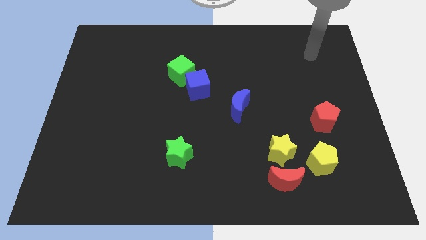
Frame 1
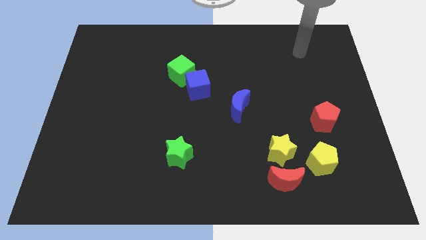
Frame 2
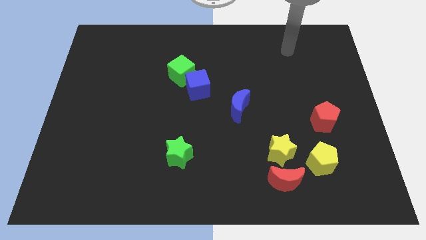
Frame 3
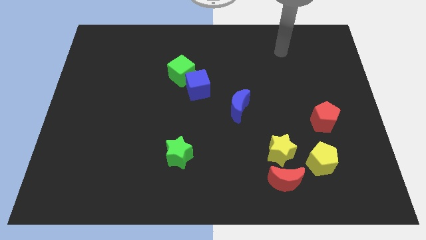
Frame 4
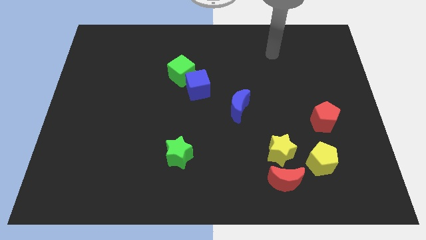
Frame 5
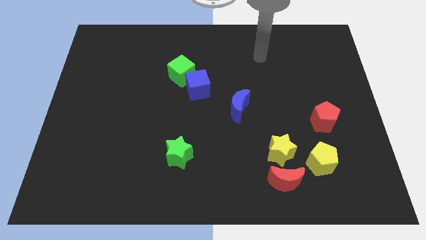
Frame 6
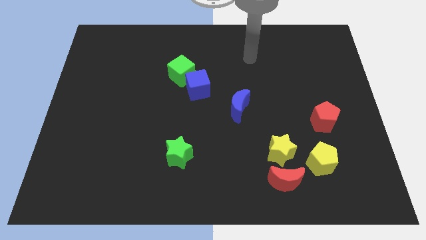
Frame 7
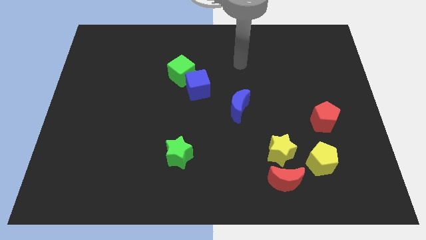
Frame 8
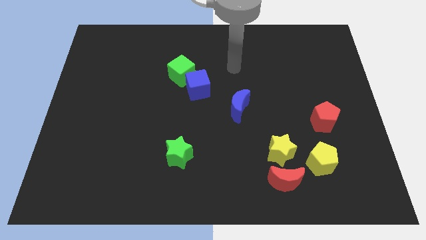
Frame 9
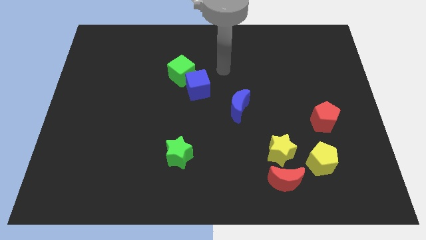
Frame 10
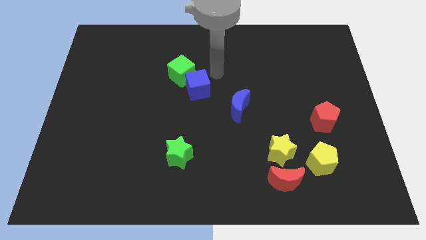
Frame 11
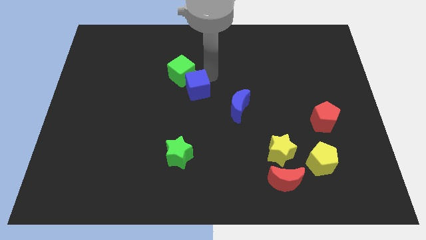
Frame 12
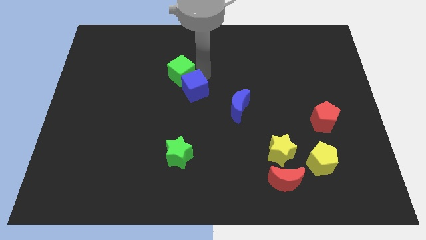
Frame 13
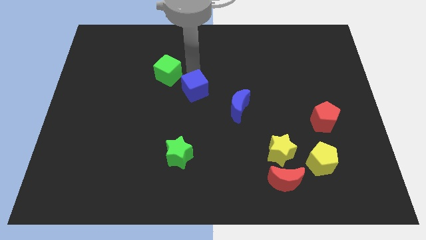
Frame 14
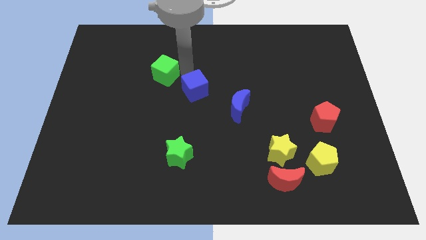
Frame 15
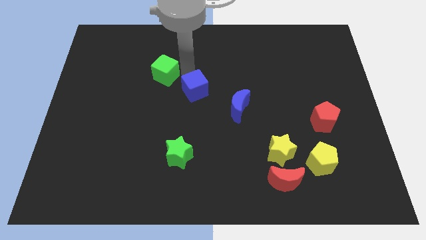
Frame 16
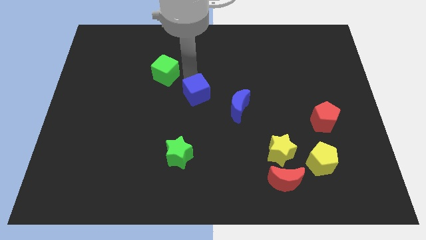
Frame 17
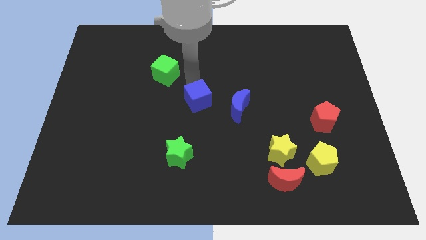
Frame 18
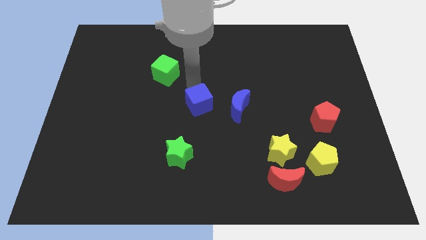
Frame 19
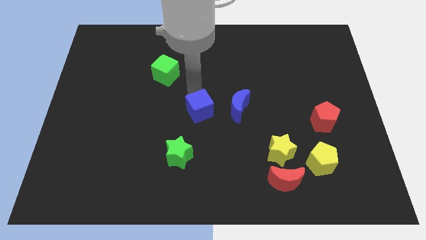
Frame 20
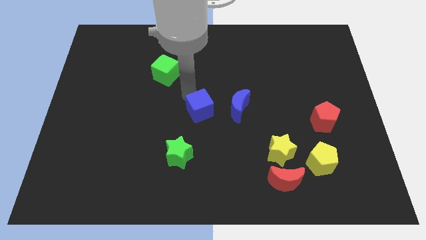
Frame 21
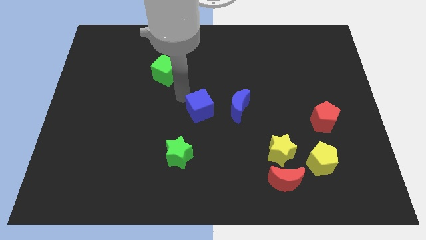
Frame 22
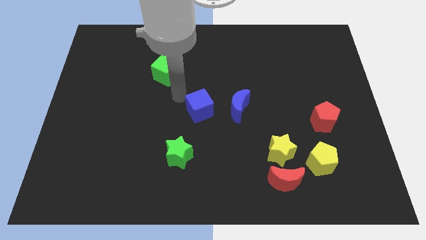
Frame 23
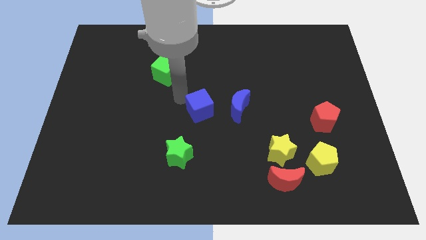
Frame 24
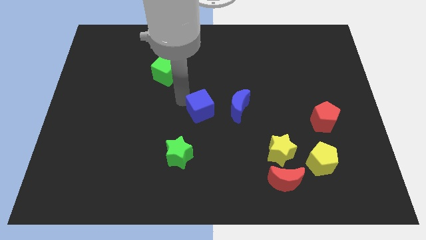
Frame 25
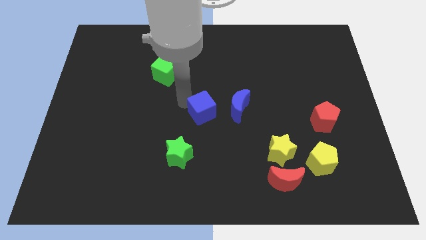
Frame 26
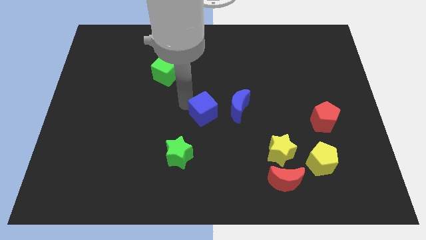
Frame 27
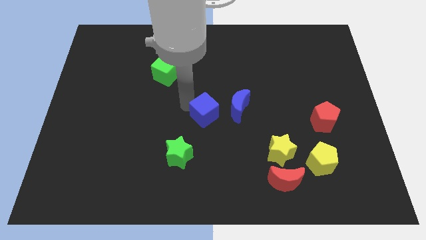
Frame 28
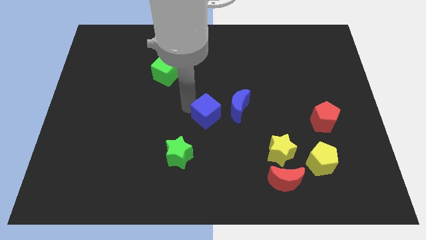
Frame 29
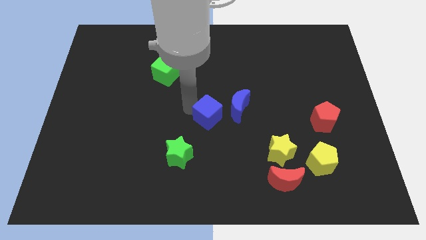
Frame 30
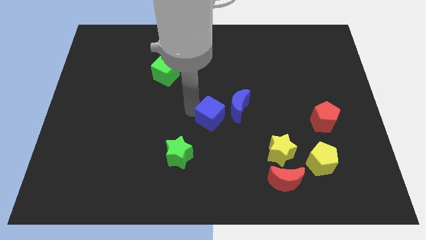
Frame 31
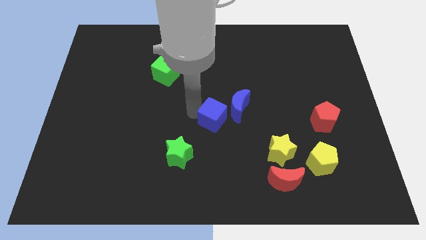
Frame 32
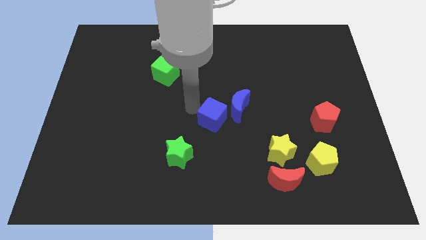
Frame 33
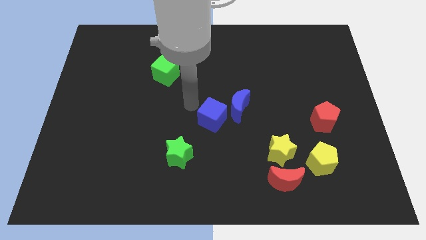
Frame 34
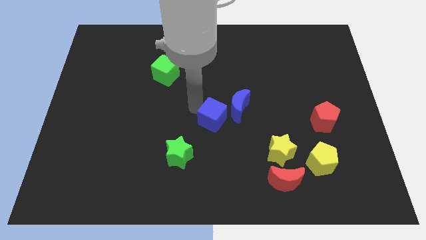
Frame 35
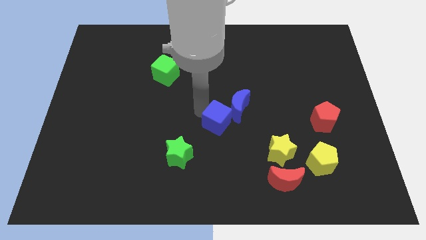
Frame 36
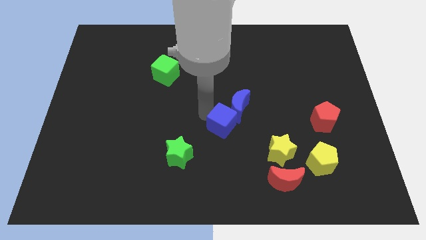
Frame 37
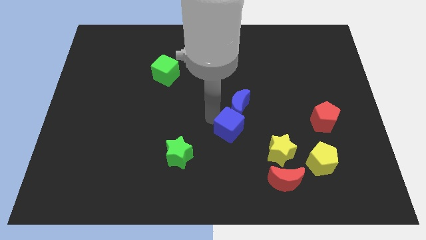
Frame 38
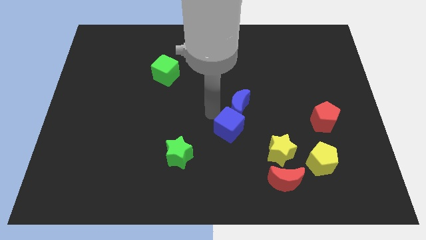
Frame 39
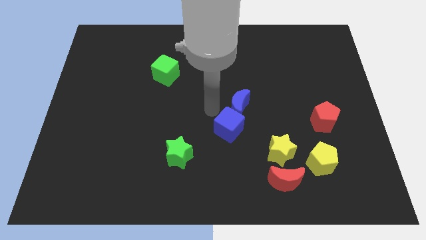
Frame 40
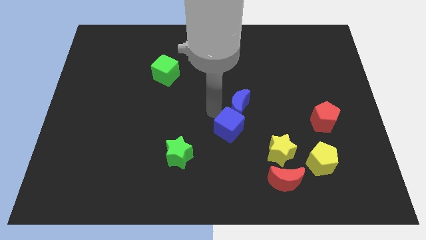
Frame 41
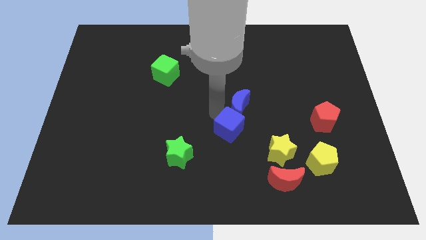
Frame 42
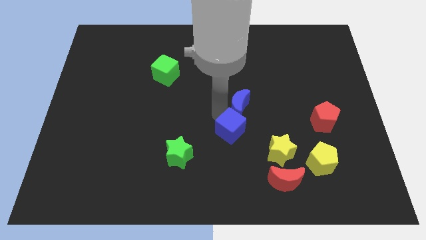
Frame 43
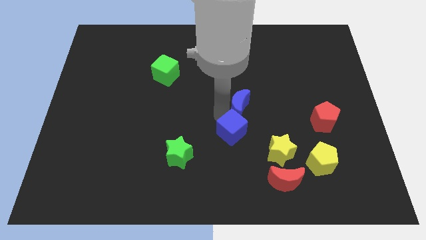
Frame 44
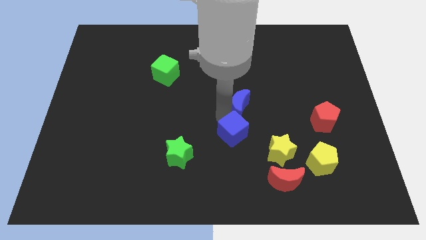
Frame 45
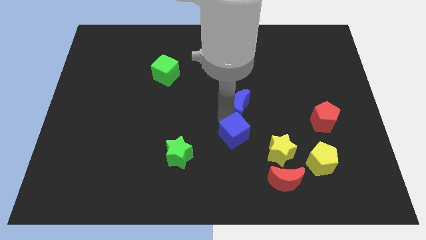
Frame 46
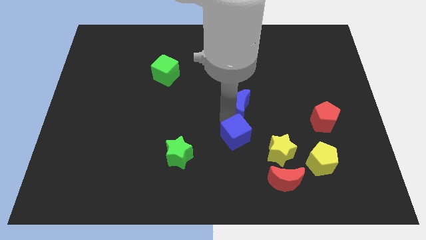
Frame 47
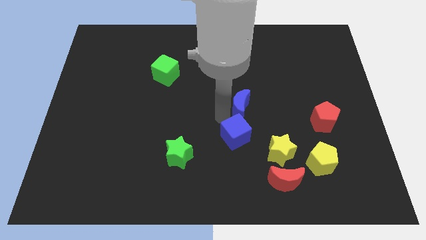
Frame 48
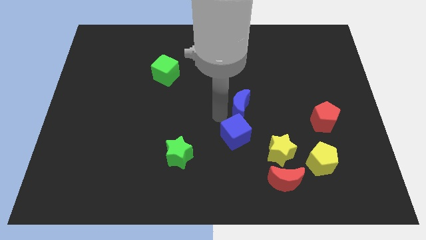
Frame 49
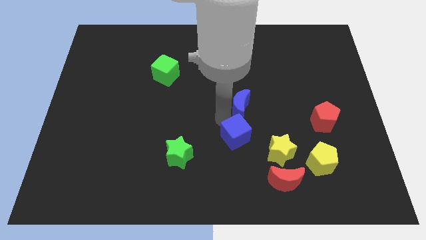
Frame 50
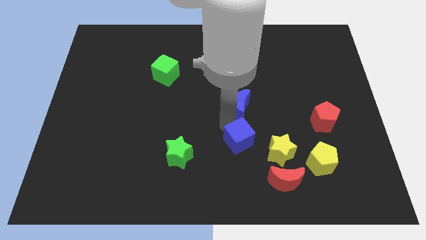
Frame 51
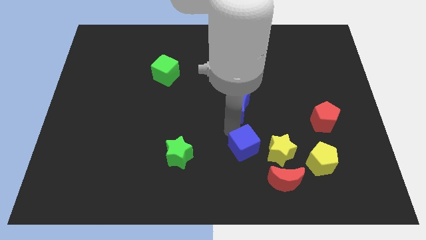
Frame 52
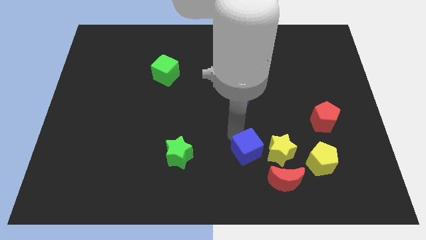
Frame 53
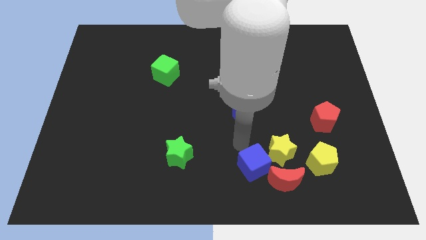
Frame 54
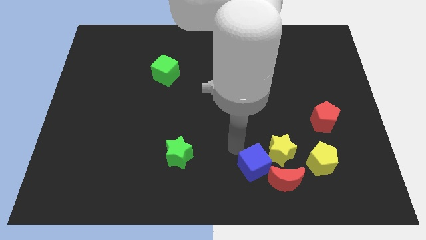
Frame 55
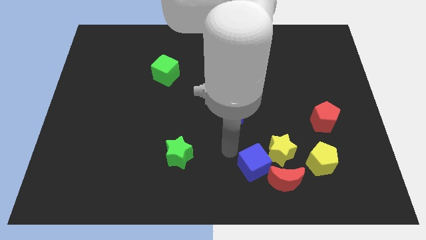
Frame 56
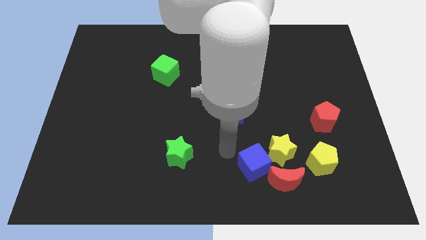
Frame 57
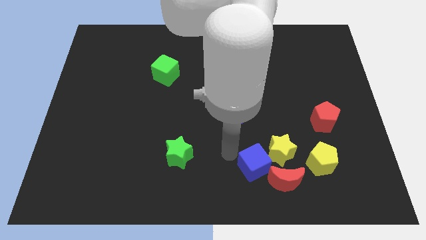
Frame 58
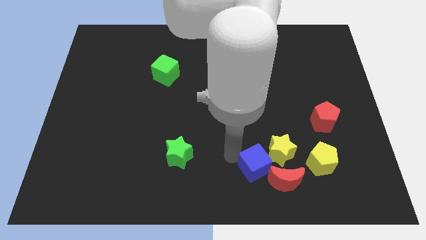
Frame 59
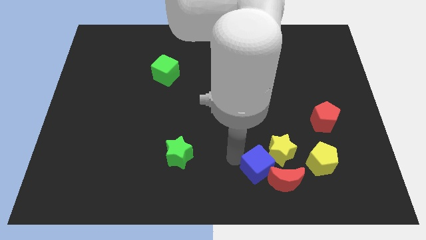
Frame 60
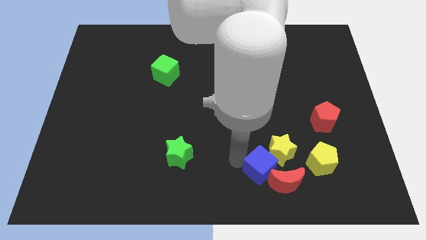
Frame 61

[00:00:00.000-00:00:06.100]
slide the blue cube next to the red moon

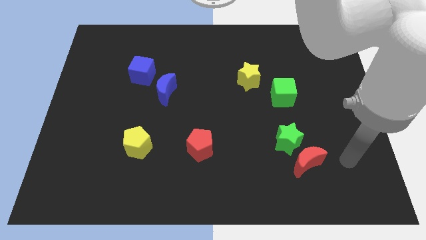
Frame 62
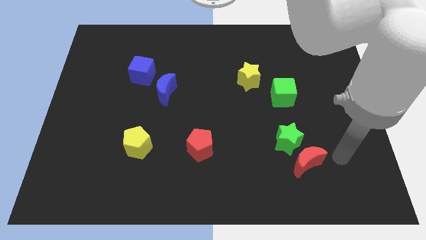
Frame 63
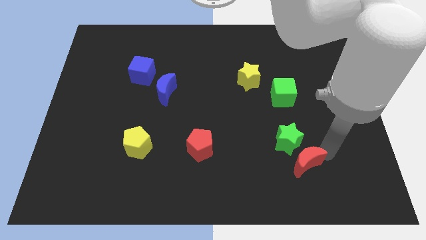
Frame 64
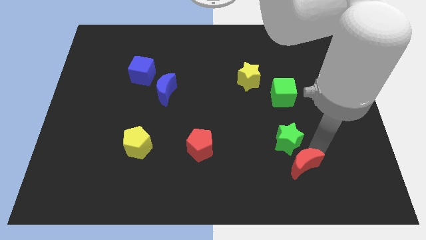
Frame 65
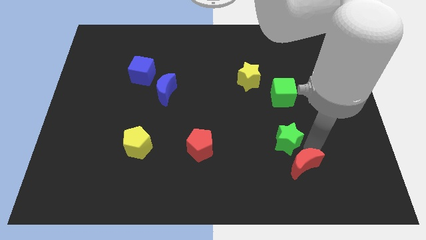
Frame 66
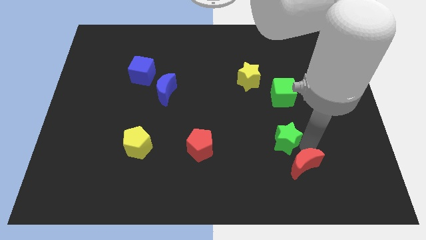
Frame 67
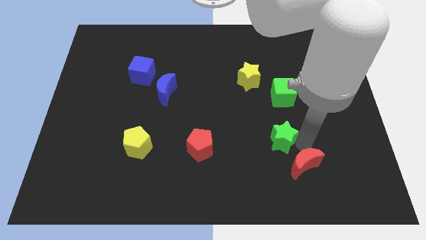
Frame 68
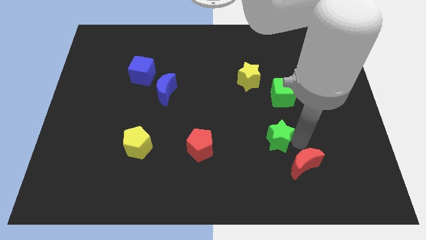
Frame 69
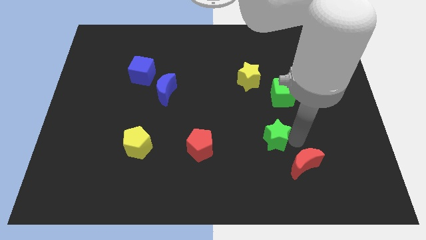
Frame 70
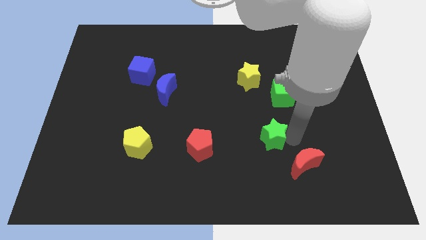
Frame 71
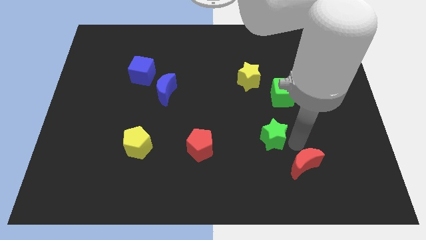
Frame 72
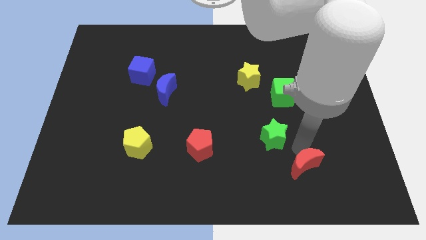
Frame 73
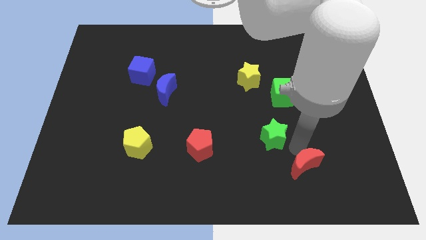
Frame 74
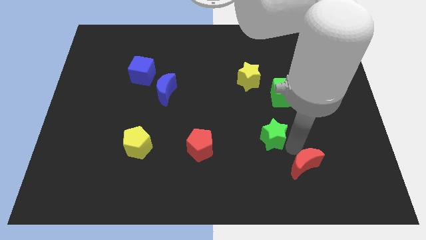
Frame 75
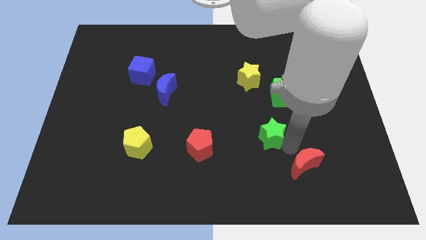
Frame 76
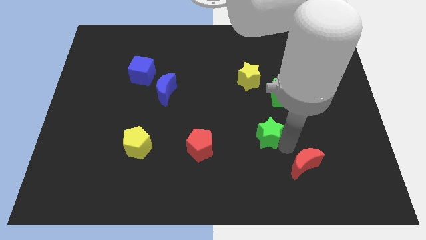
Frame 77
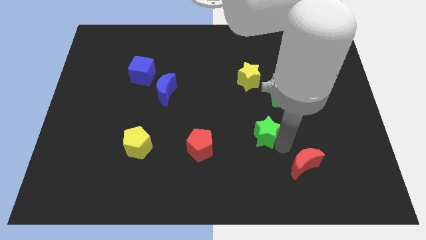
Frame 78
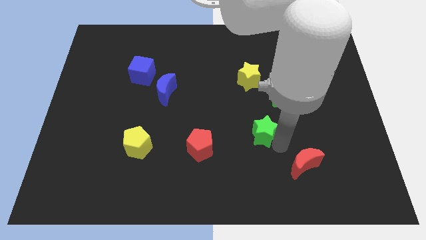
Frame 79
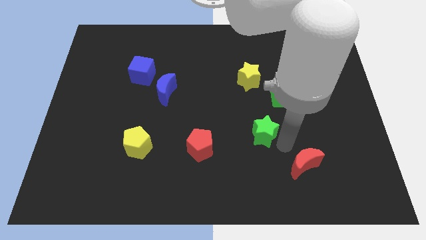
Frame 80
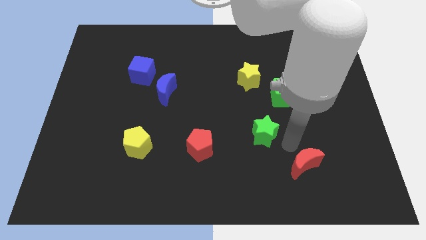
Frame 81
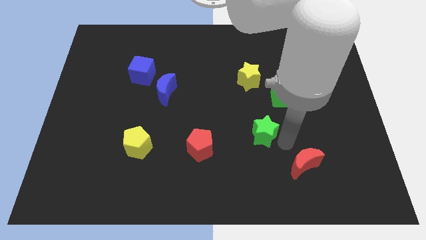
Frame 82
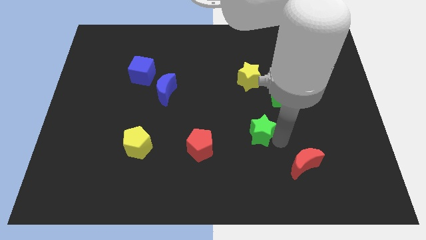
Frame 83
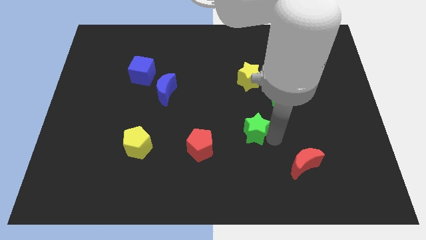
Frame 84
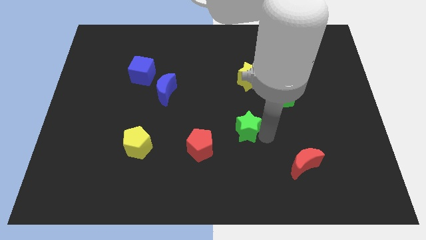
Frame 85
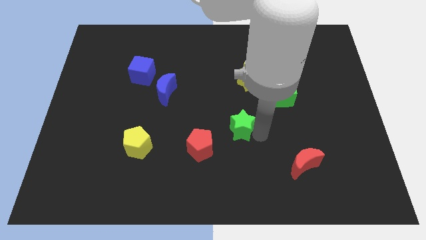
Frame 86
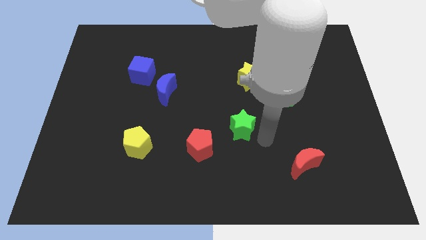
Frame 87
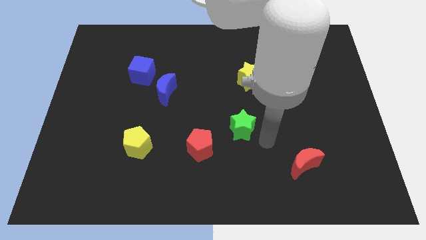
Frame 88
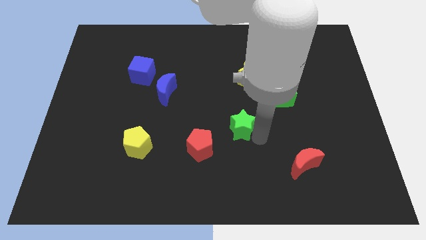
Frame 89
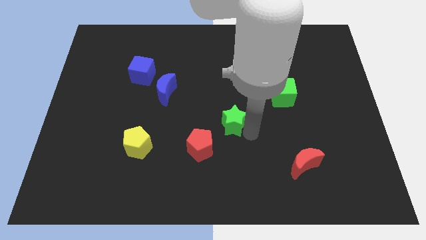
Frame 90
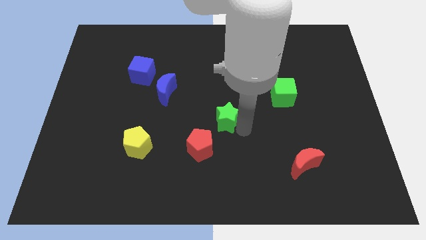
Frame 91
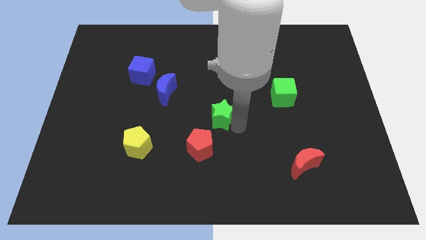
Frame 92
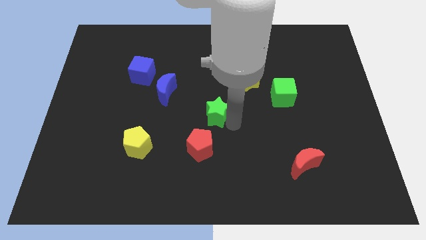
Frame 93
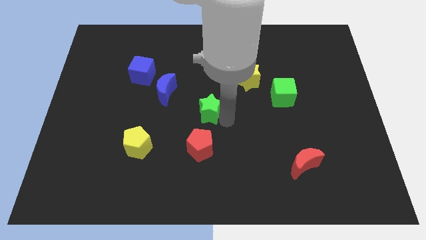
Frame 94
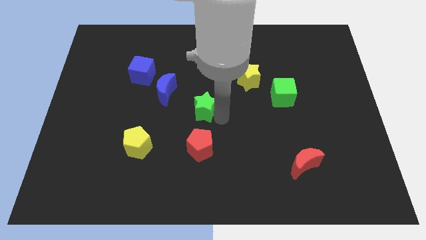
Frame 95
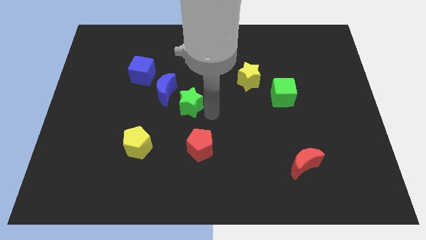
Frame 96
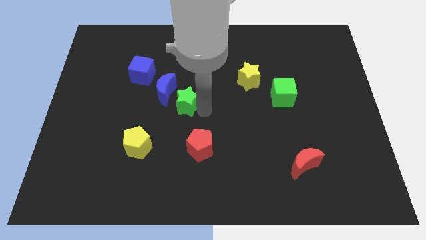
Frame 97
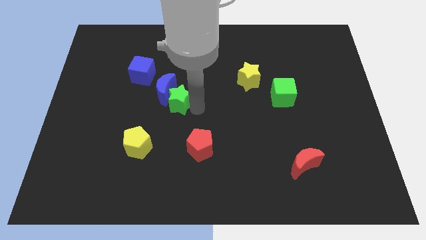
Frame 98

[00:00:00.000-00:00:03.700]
slide the green star to the blue moon
